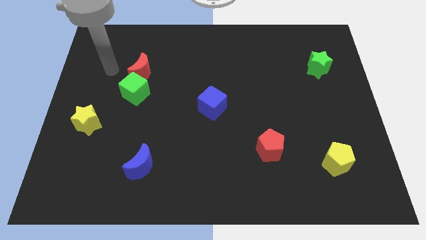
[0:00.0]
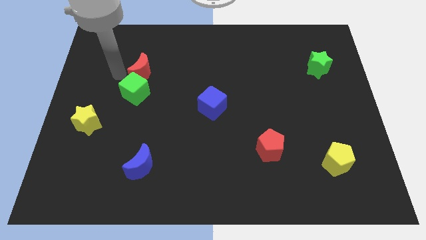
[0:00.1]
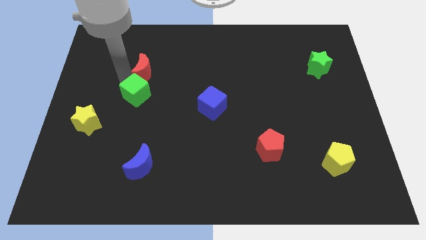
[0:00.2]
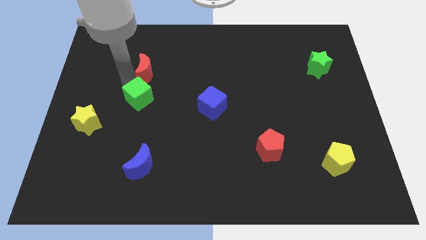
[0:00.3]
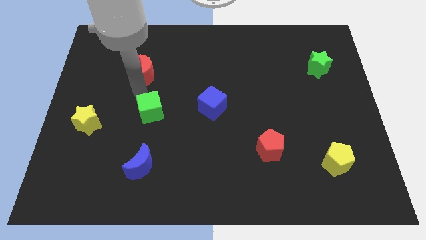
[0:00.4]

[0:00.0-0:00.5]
move the red moon away from the green cube

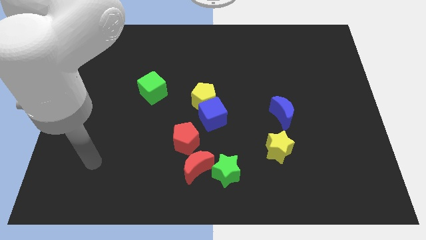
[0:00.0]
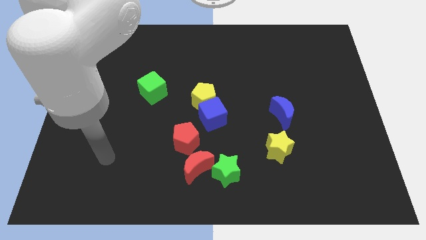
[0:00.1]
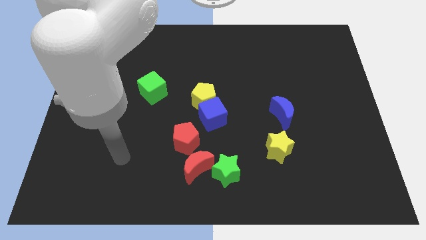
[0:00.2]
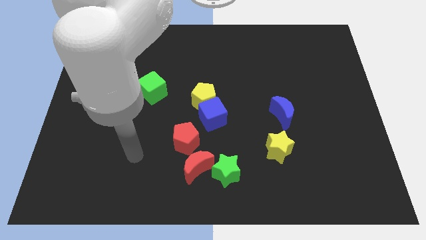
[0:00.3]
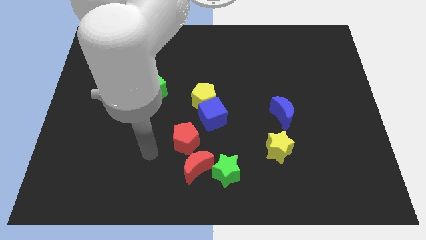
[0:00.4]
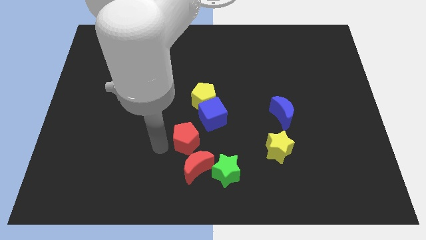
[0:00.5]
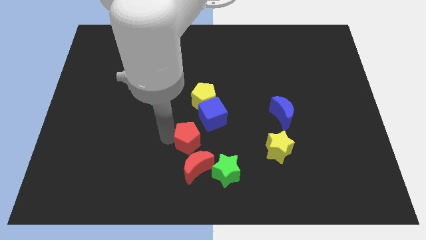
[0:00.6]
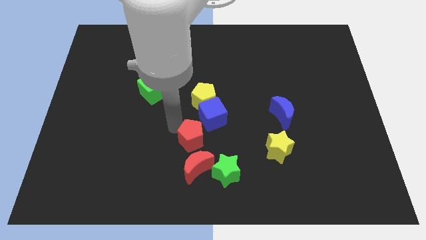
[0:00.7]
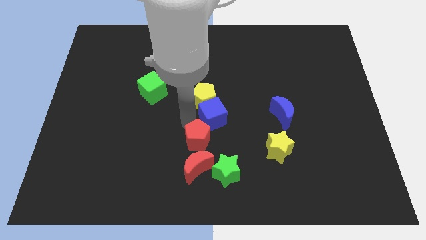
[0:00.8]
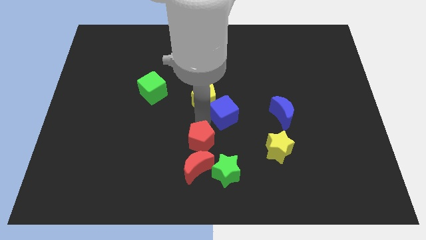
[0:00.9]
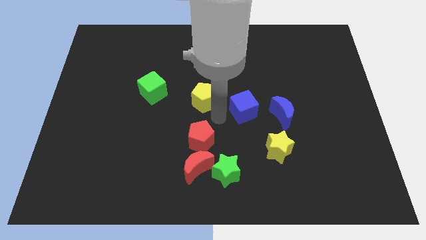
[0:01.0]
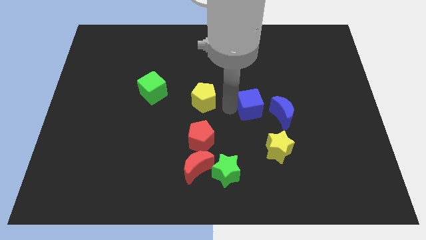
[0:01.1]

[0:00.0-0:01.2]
move the yellow pentagon away from the blue cube

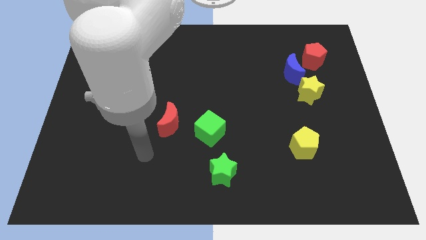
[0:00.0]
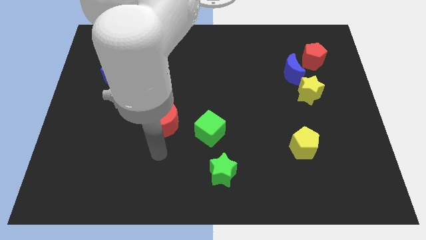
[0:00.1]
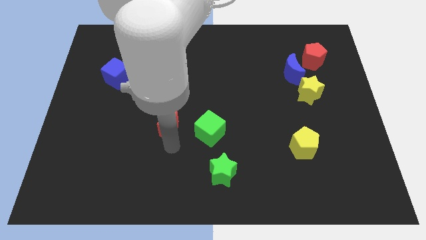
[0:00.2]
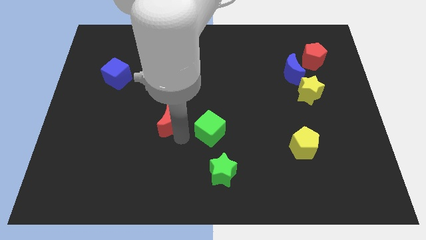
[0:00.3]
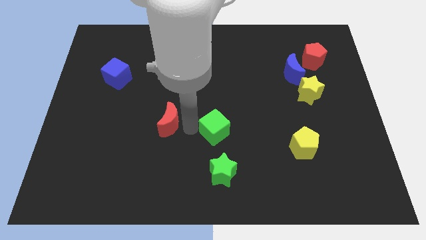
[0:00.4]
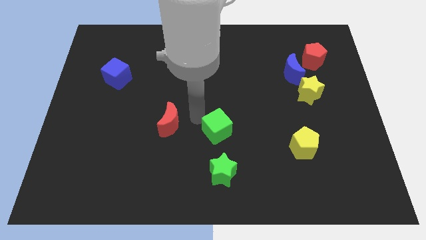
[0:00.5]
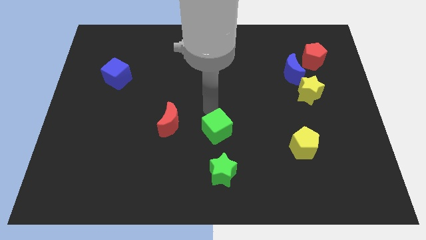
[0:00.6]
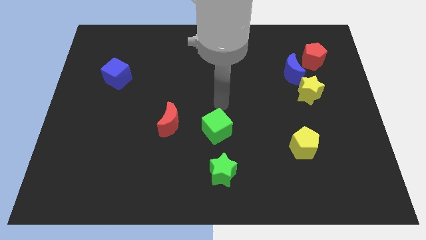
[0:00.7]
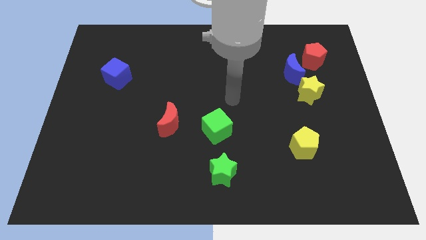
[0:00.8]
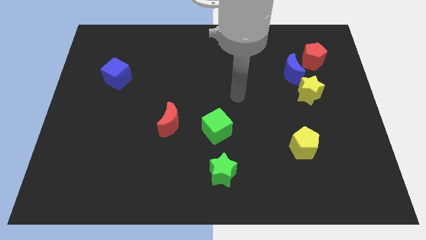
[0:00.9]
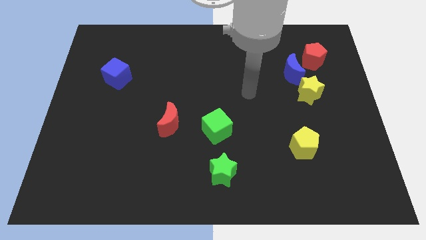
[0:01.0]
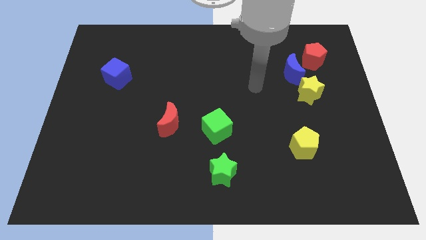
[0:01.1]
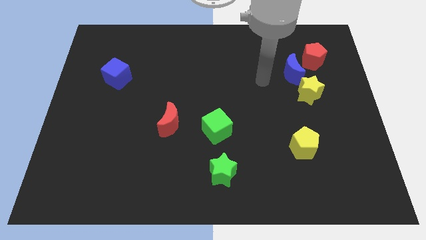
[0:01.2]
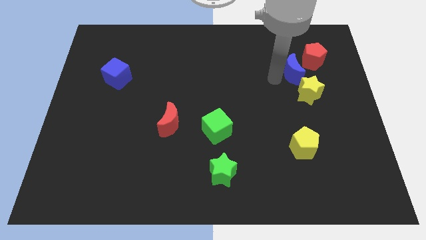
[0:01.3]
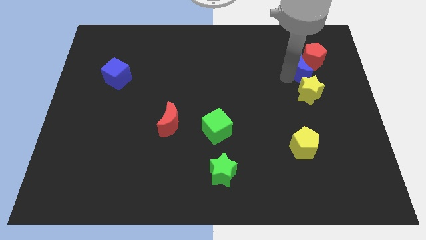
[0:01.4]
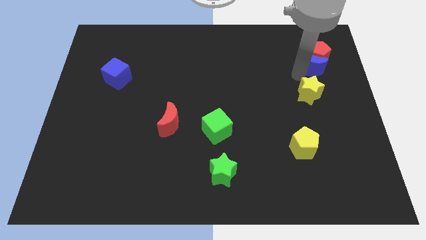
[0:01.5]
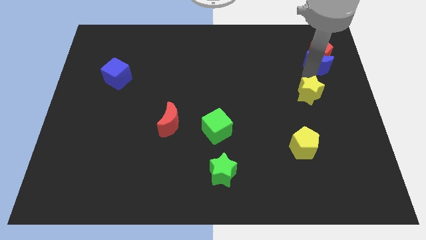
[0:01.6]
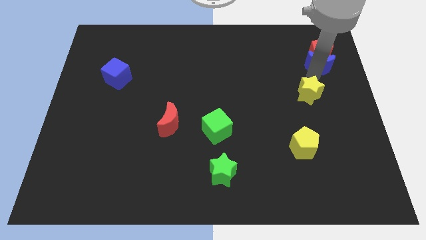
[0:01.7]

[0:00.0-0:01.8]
separate the yellow star from the blue moon

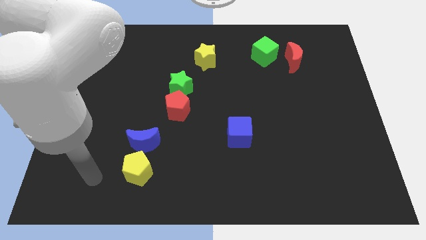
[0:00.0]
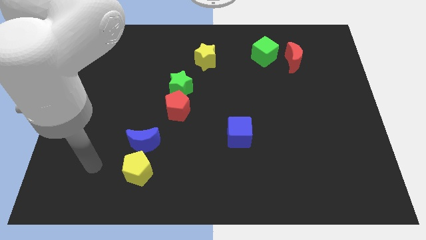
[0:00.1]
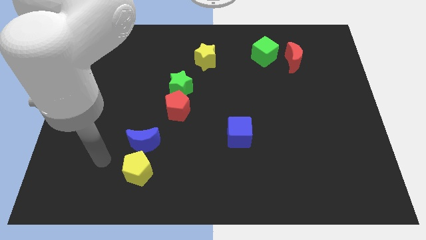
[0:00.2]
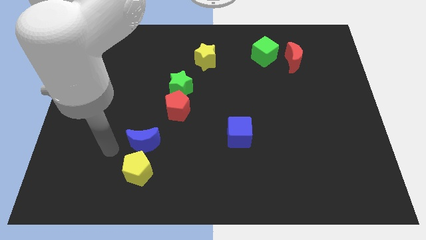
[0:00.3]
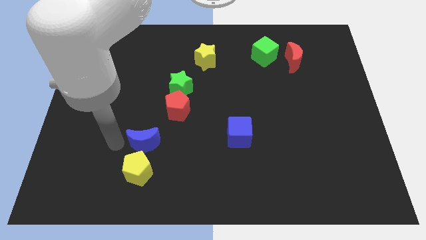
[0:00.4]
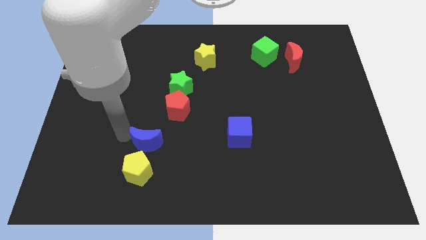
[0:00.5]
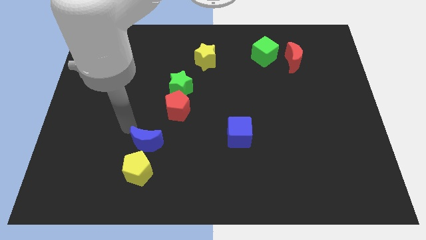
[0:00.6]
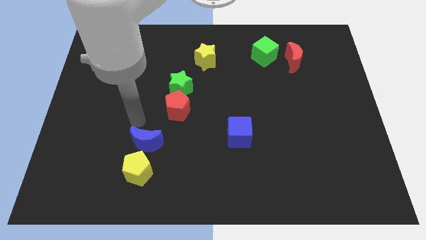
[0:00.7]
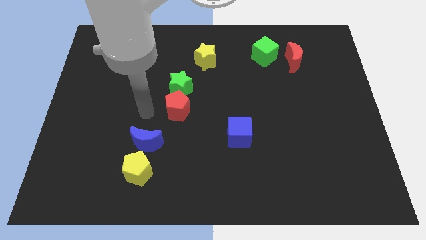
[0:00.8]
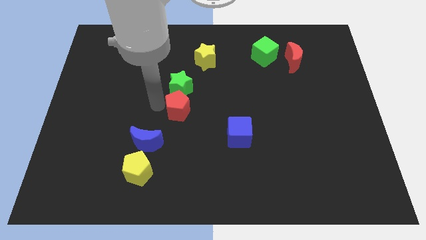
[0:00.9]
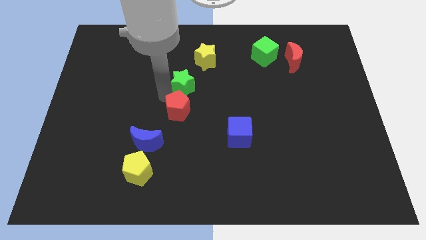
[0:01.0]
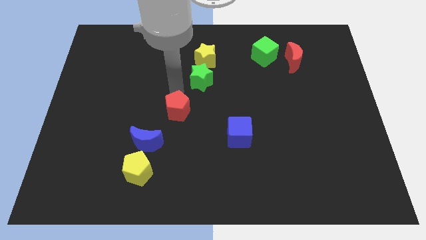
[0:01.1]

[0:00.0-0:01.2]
pull the red pentagon apart from the green star

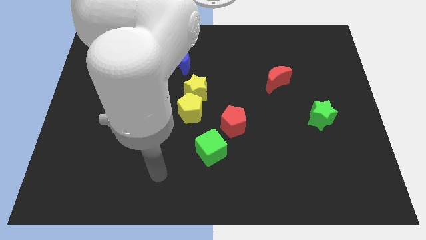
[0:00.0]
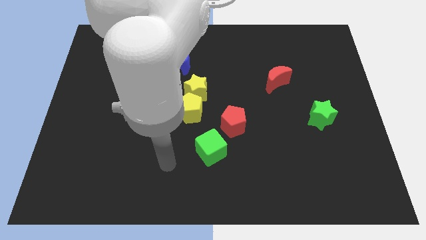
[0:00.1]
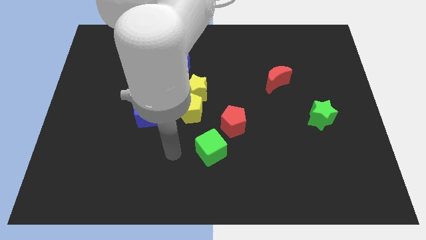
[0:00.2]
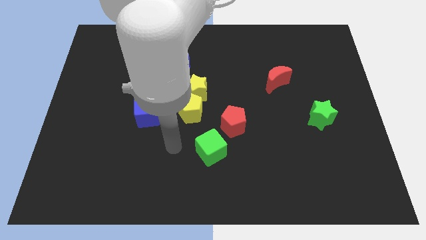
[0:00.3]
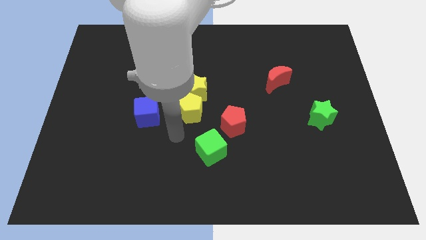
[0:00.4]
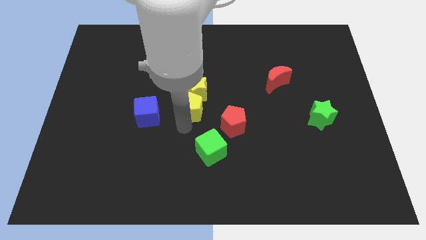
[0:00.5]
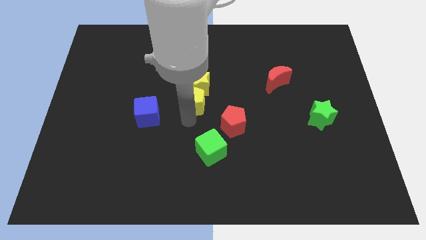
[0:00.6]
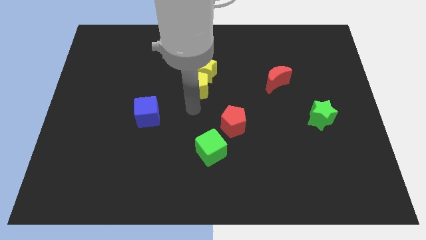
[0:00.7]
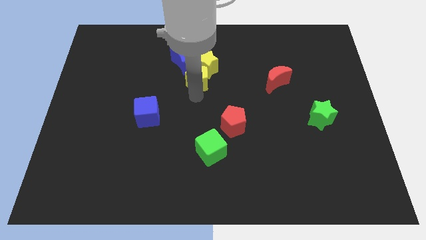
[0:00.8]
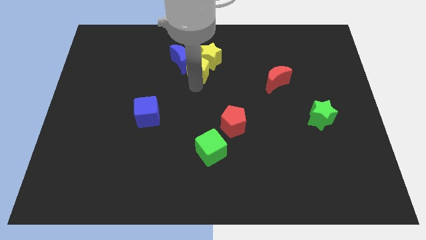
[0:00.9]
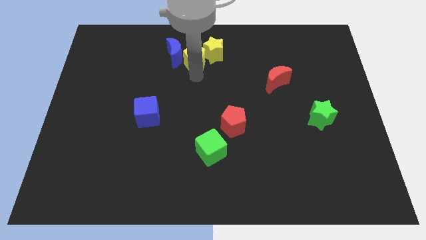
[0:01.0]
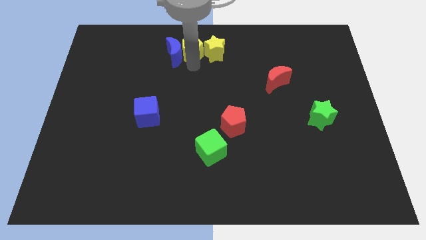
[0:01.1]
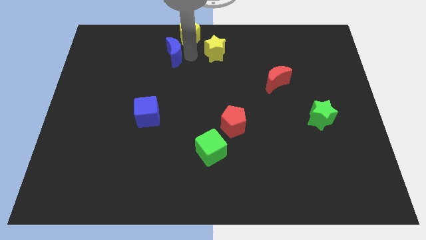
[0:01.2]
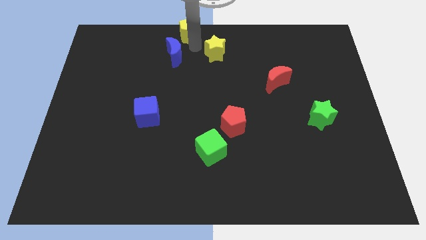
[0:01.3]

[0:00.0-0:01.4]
separate the yellow star from the yellow pentagon

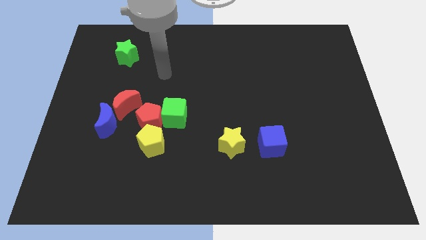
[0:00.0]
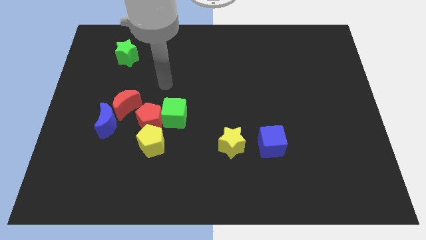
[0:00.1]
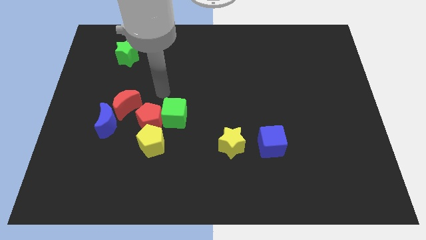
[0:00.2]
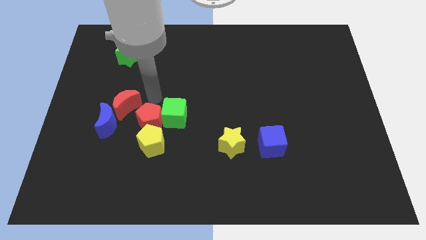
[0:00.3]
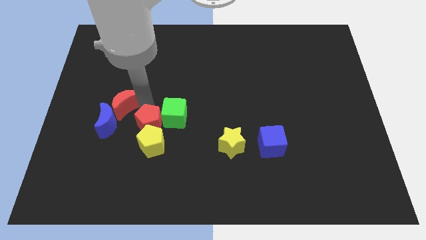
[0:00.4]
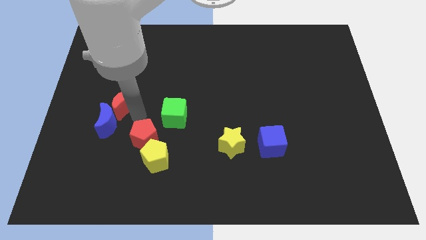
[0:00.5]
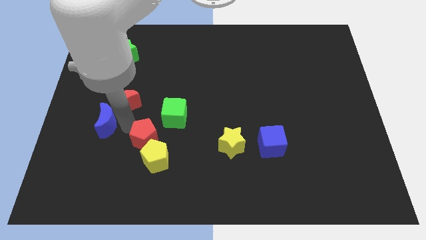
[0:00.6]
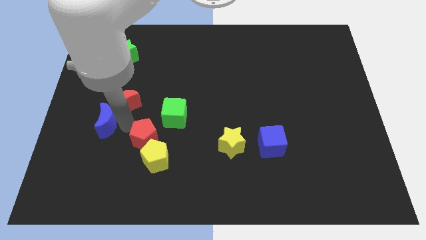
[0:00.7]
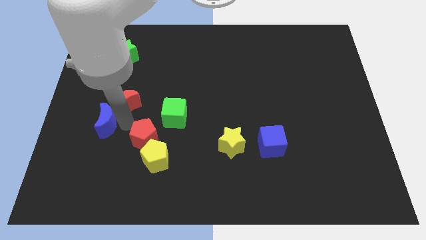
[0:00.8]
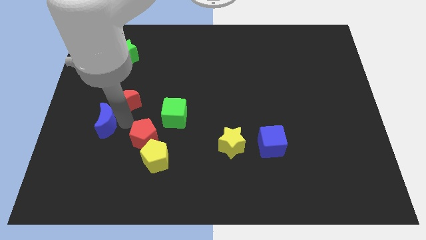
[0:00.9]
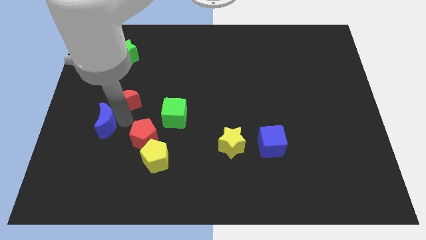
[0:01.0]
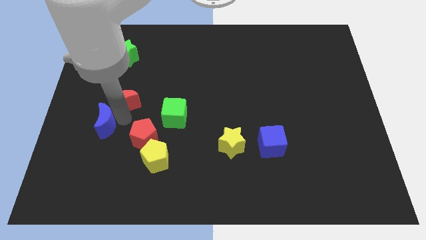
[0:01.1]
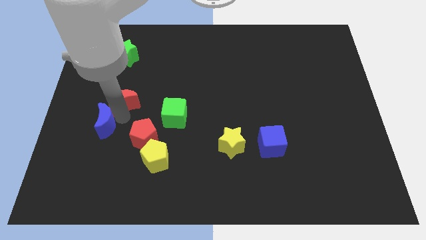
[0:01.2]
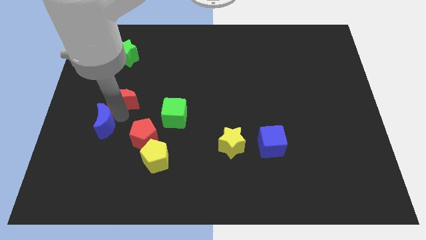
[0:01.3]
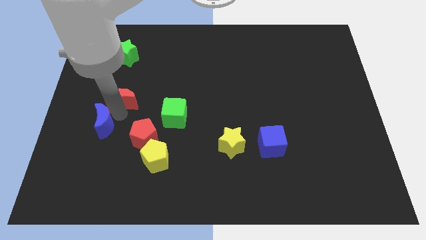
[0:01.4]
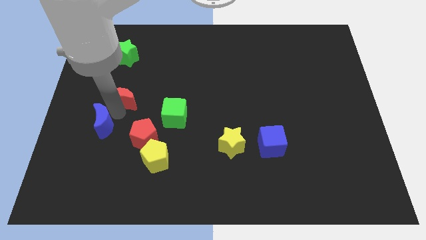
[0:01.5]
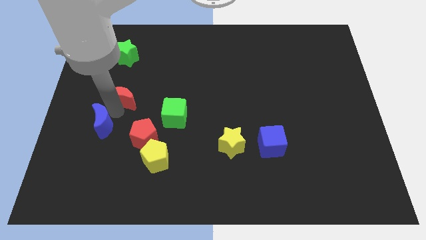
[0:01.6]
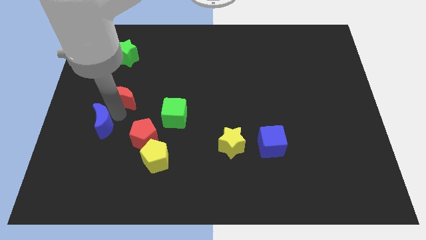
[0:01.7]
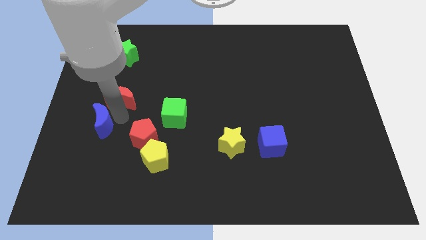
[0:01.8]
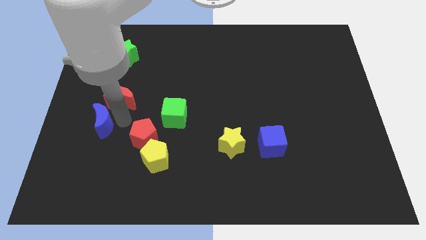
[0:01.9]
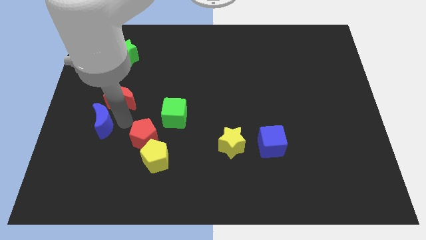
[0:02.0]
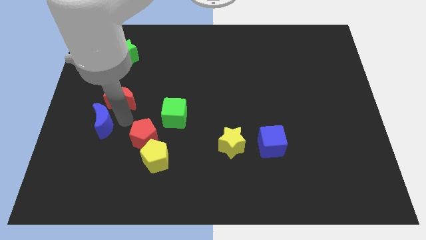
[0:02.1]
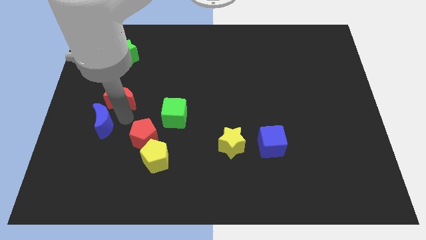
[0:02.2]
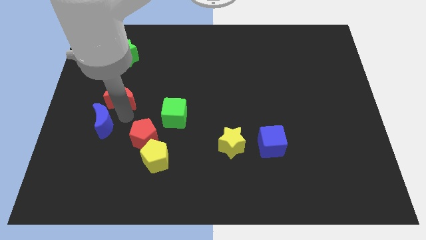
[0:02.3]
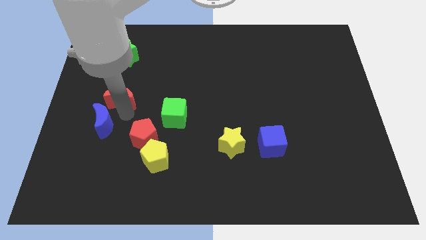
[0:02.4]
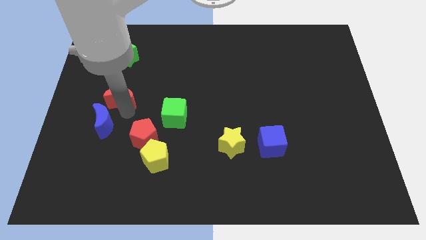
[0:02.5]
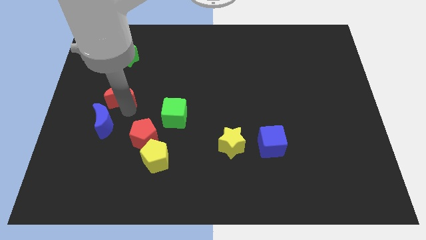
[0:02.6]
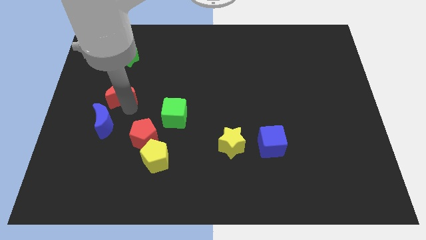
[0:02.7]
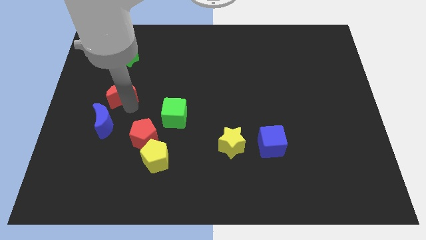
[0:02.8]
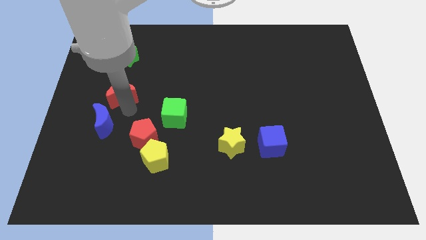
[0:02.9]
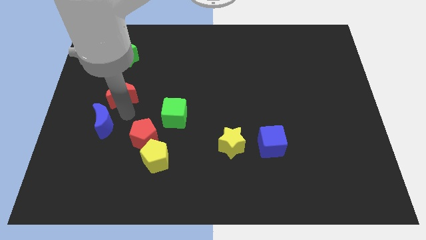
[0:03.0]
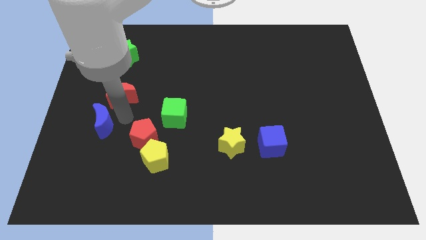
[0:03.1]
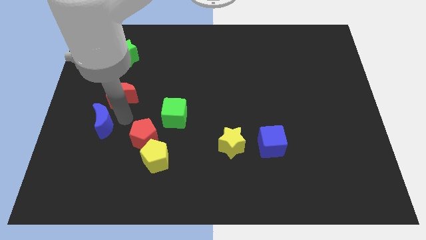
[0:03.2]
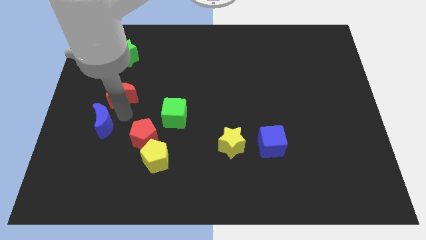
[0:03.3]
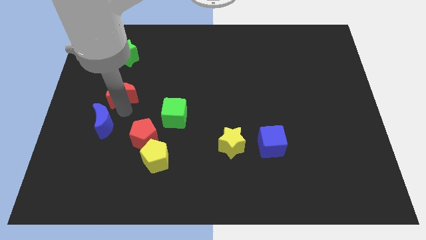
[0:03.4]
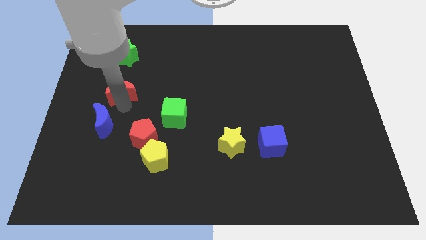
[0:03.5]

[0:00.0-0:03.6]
pull the red moon apart from the blue moon and red pentagon
